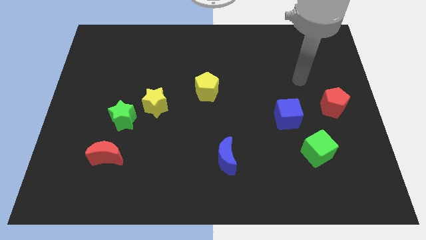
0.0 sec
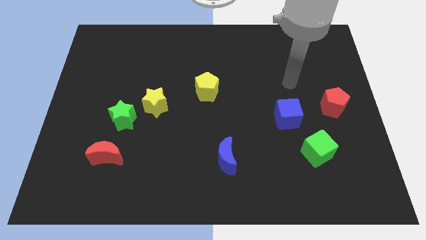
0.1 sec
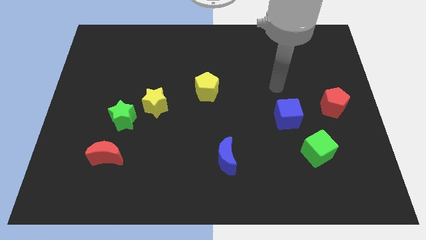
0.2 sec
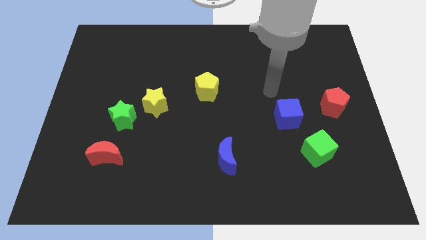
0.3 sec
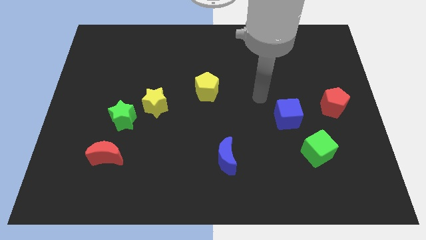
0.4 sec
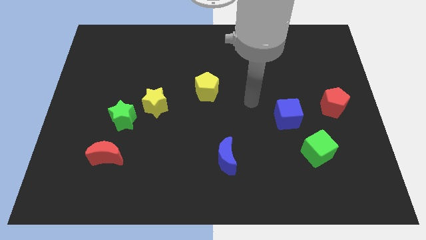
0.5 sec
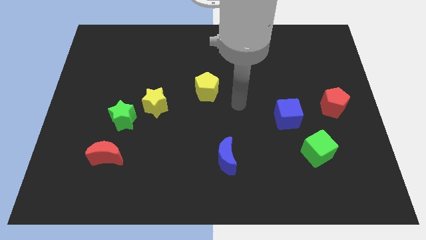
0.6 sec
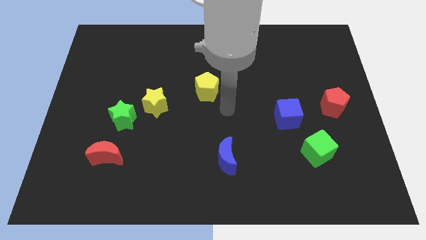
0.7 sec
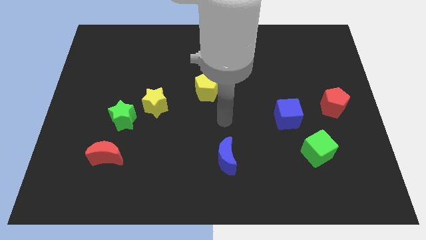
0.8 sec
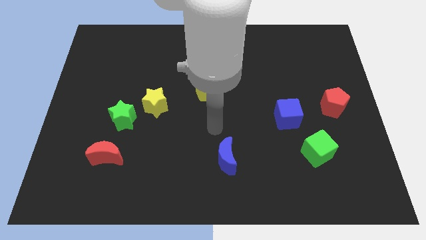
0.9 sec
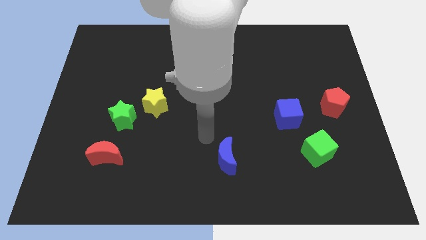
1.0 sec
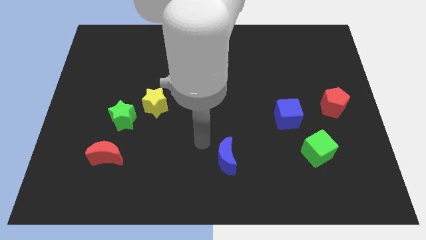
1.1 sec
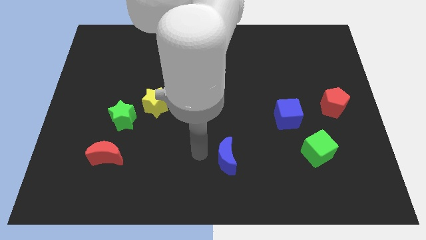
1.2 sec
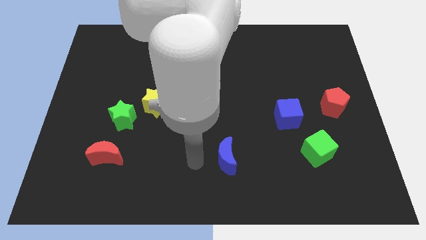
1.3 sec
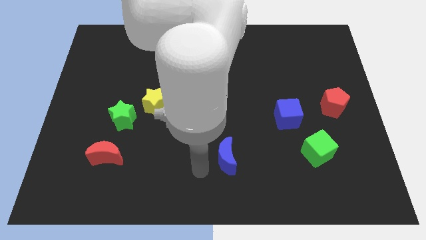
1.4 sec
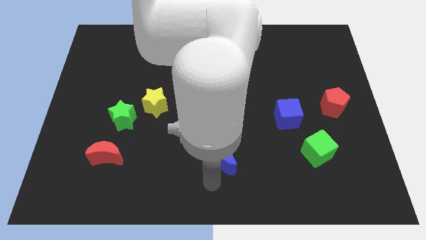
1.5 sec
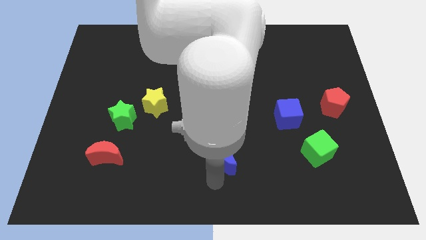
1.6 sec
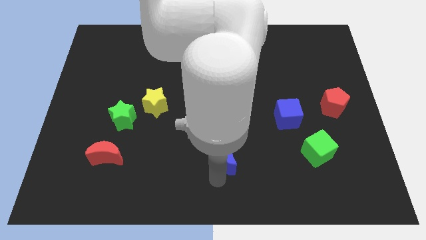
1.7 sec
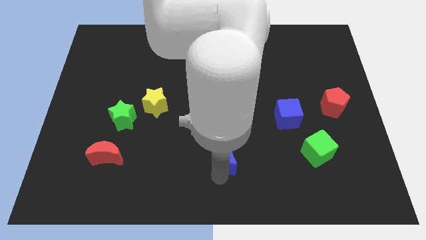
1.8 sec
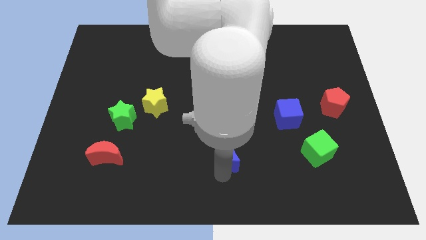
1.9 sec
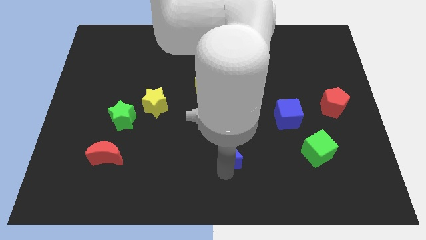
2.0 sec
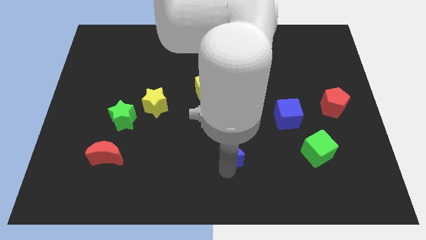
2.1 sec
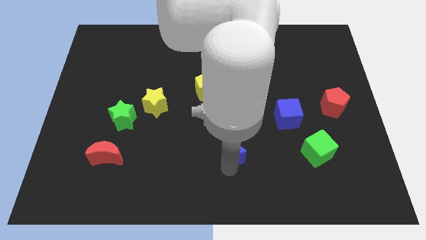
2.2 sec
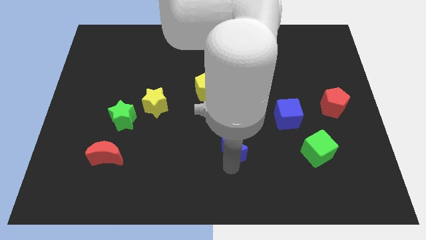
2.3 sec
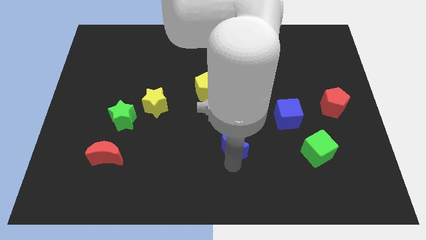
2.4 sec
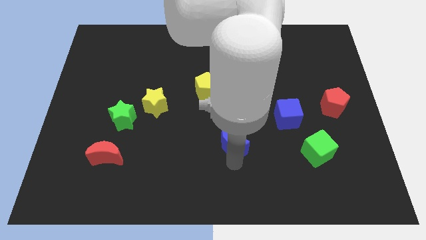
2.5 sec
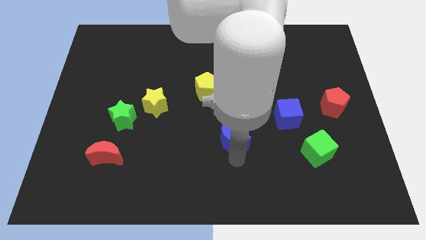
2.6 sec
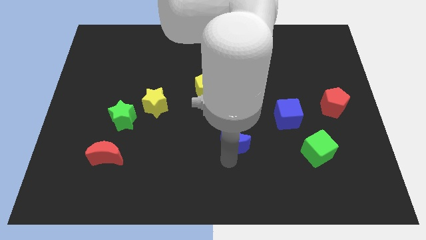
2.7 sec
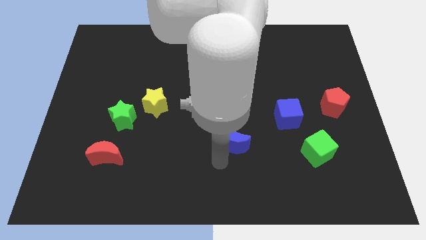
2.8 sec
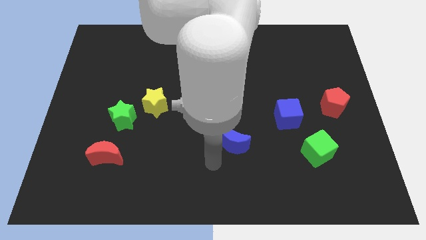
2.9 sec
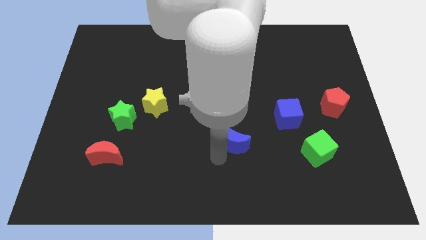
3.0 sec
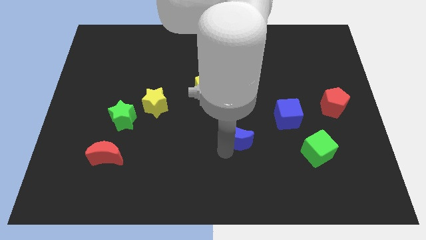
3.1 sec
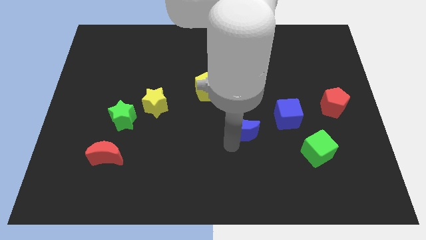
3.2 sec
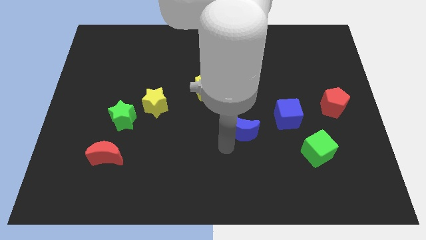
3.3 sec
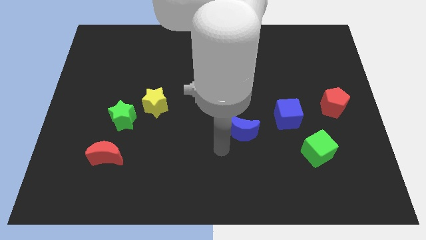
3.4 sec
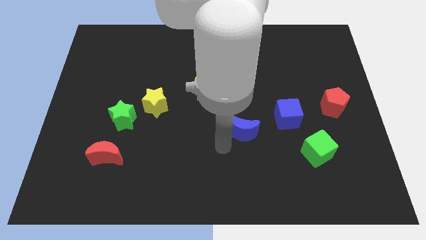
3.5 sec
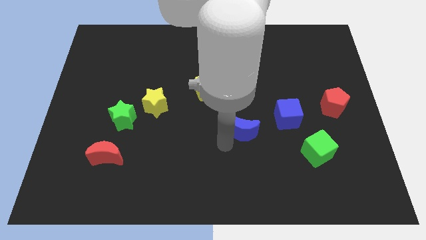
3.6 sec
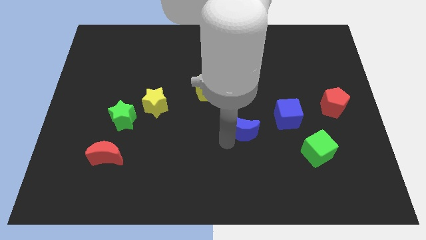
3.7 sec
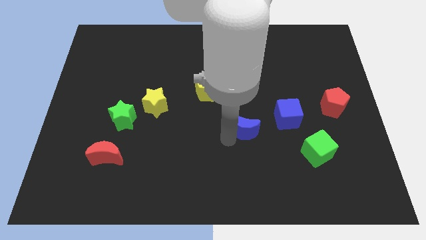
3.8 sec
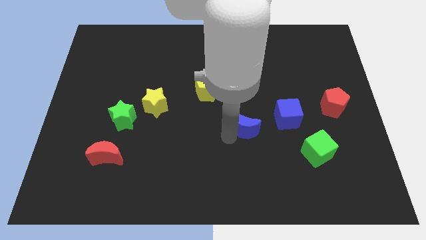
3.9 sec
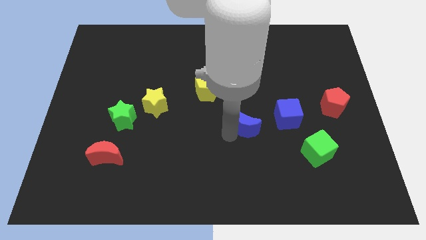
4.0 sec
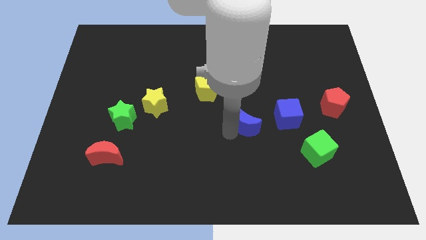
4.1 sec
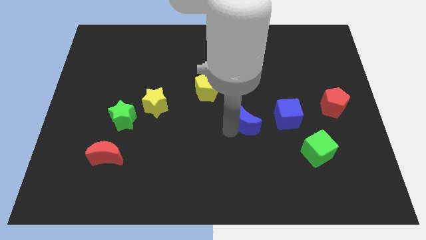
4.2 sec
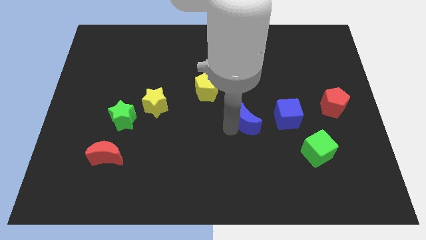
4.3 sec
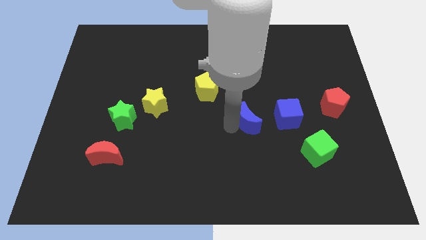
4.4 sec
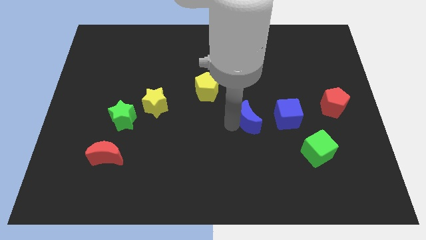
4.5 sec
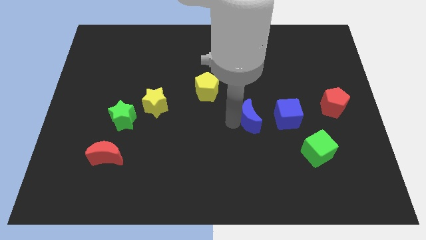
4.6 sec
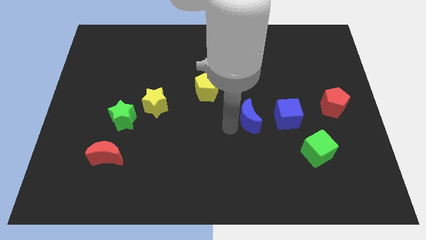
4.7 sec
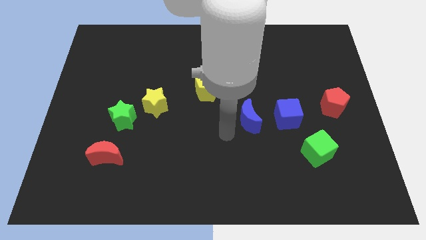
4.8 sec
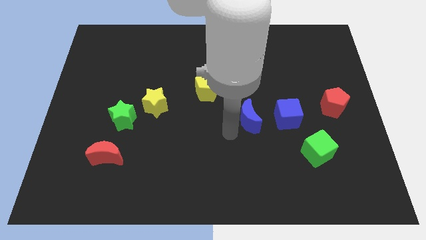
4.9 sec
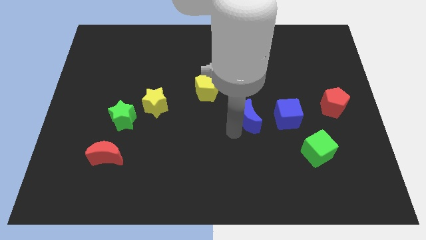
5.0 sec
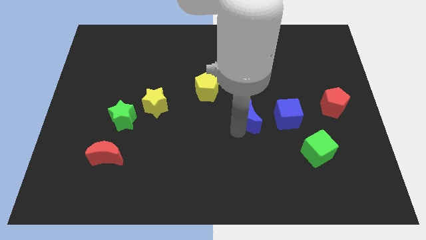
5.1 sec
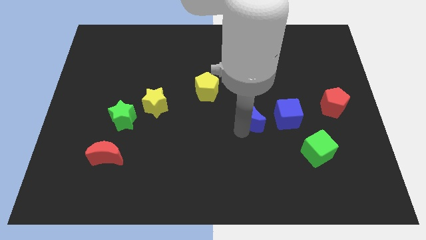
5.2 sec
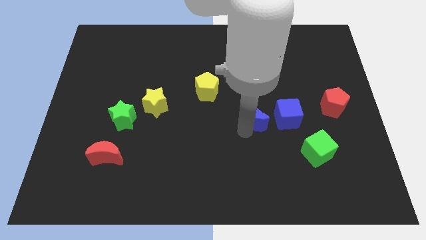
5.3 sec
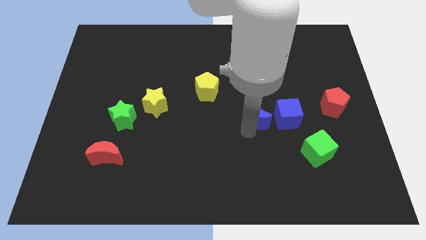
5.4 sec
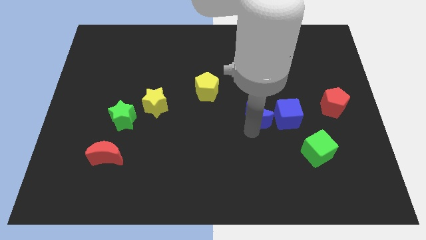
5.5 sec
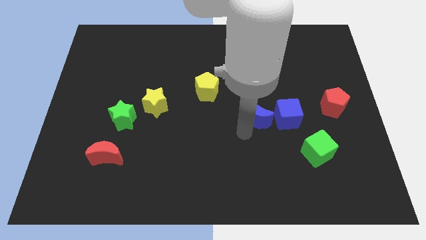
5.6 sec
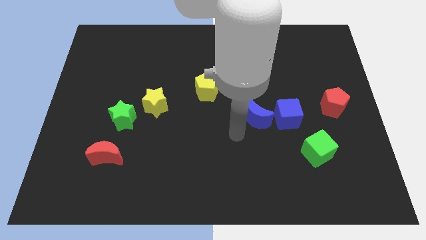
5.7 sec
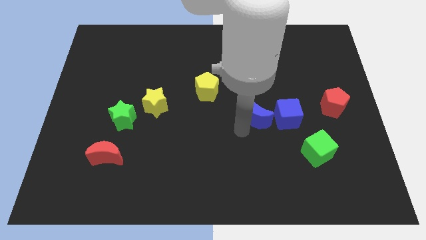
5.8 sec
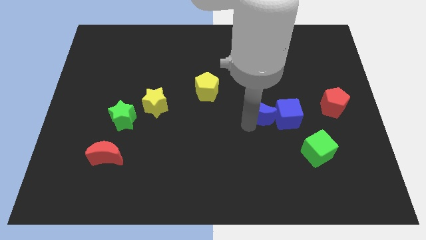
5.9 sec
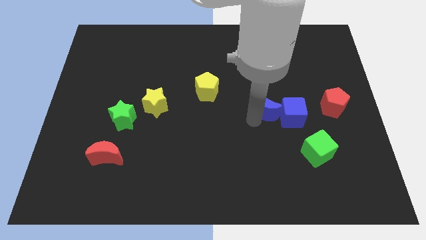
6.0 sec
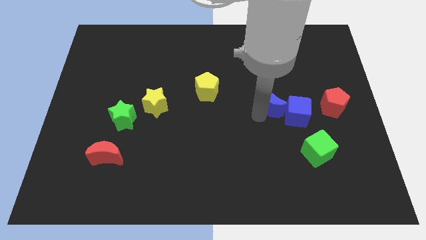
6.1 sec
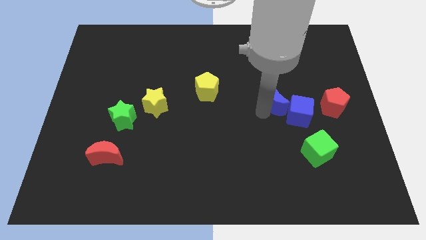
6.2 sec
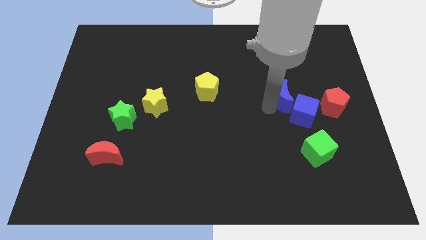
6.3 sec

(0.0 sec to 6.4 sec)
push the blue moon diagonally upwards and to the right

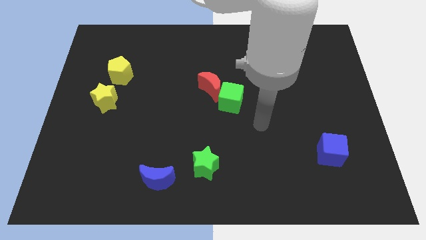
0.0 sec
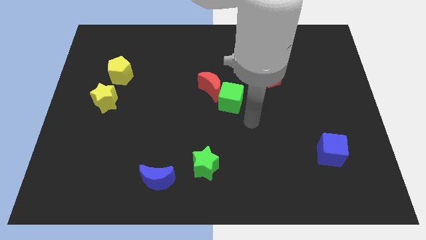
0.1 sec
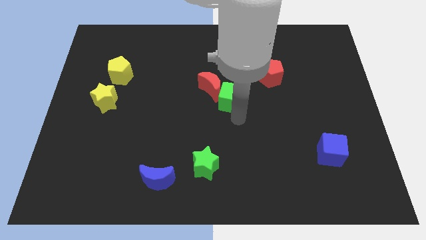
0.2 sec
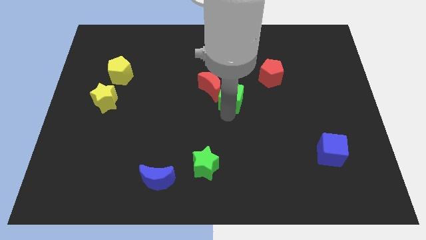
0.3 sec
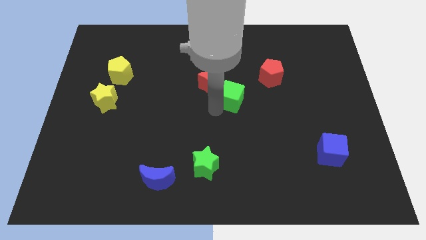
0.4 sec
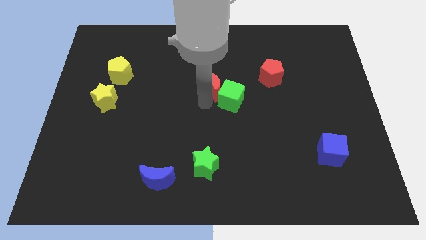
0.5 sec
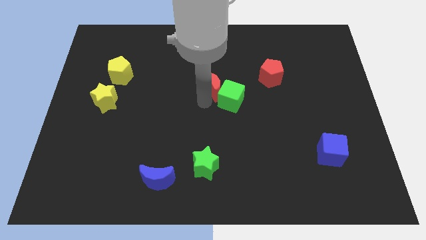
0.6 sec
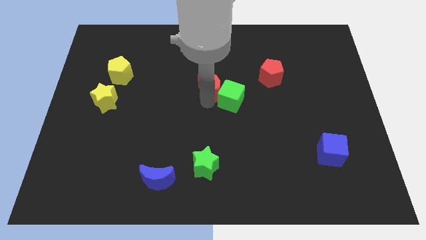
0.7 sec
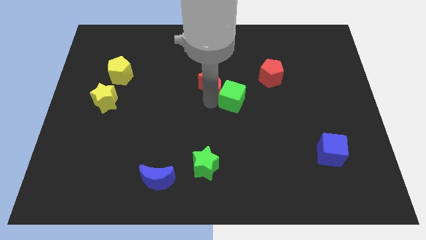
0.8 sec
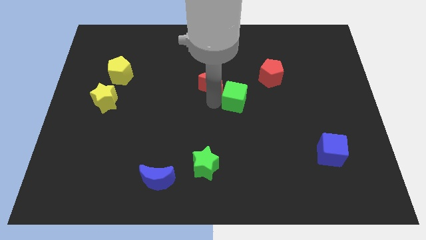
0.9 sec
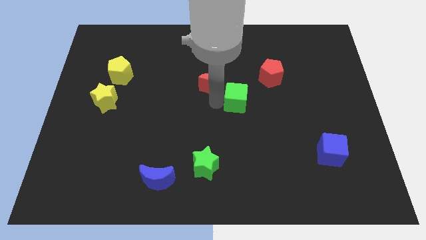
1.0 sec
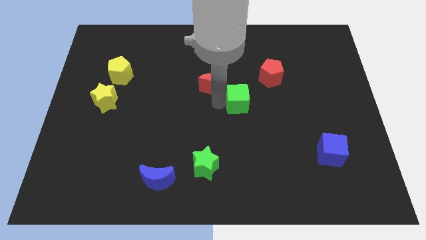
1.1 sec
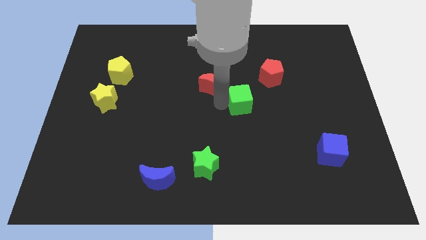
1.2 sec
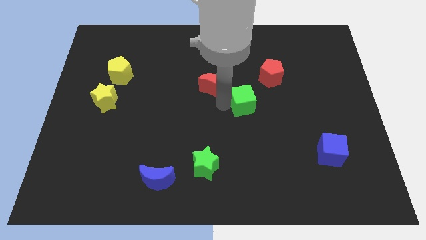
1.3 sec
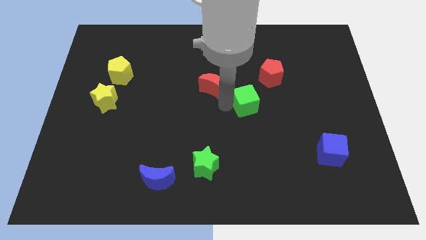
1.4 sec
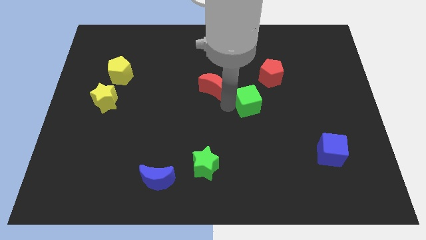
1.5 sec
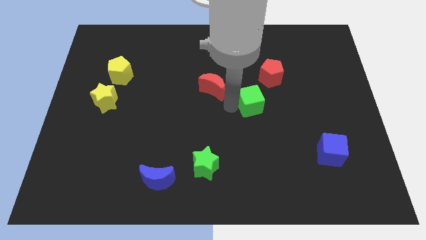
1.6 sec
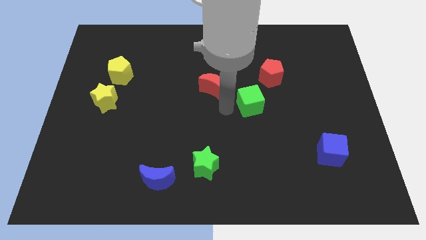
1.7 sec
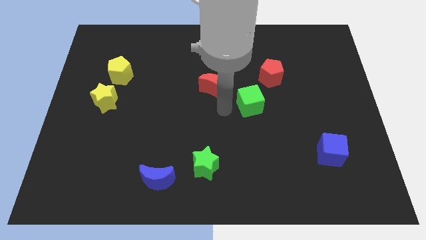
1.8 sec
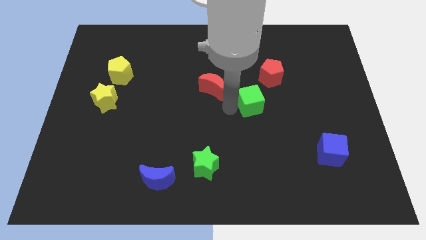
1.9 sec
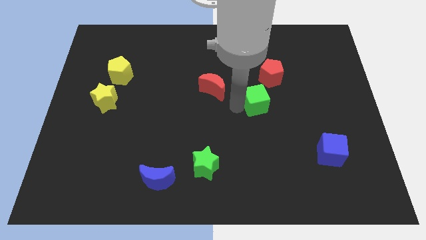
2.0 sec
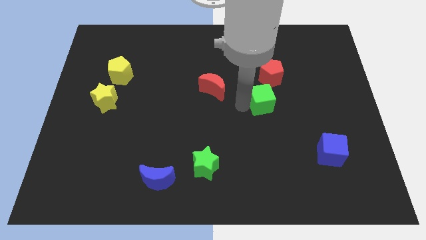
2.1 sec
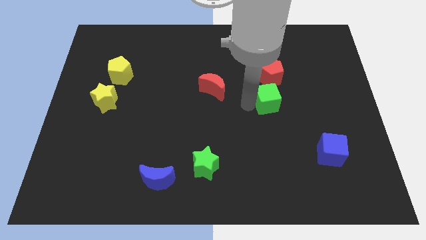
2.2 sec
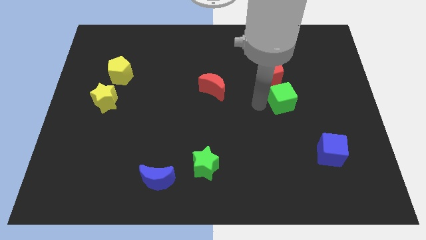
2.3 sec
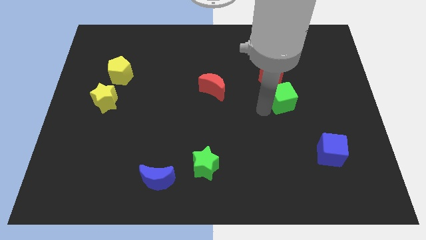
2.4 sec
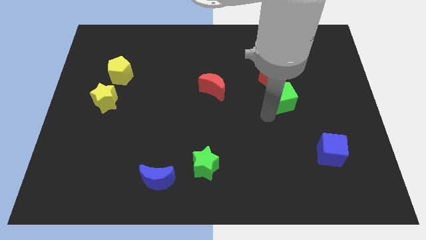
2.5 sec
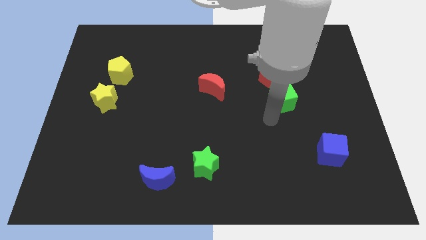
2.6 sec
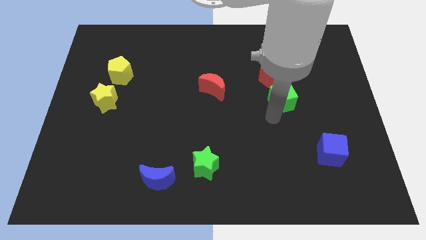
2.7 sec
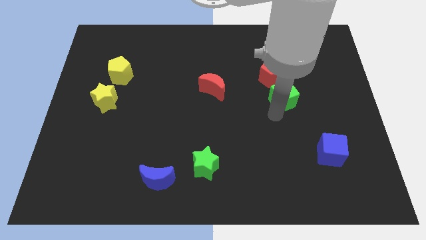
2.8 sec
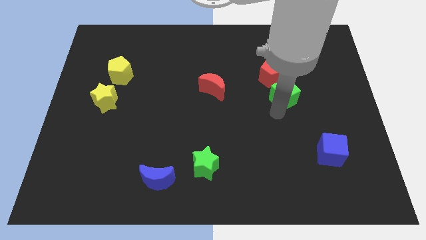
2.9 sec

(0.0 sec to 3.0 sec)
slightly slide the green cube upwards and then to the right
